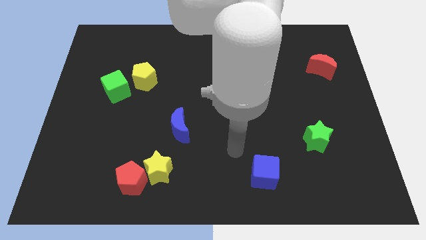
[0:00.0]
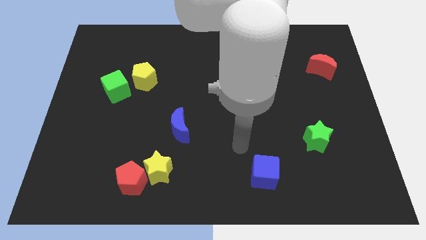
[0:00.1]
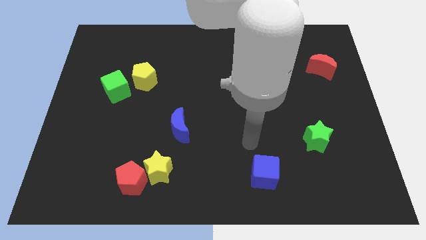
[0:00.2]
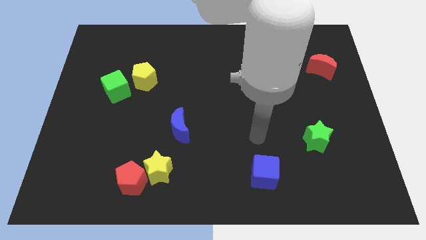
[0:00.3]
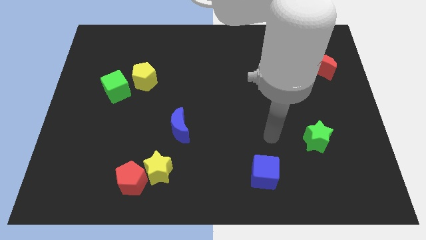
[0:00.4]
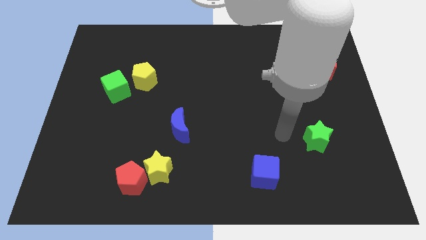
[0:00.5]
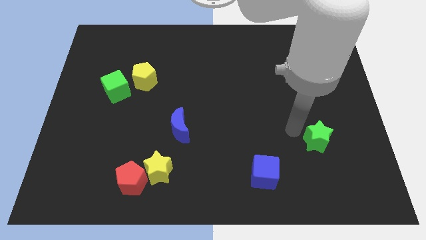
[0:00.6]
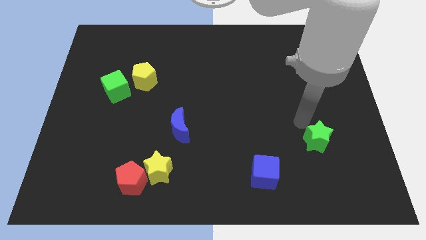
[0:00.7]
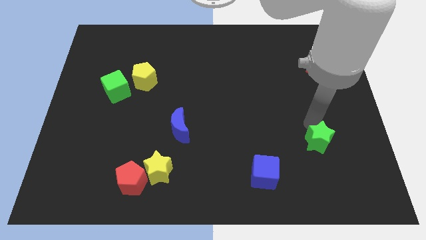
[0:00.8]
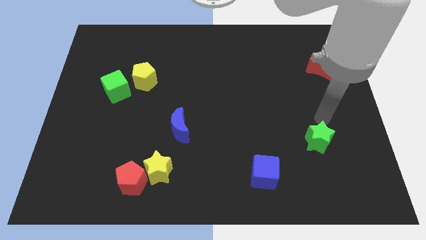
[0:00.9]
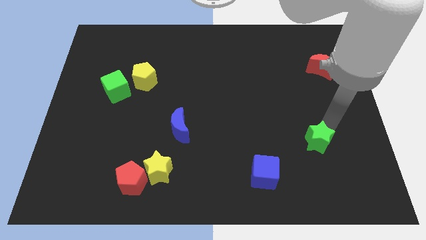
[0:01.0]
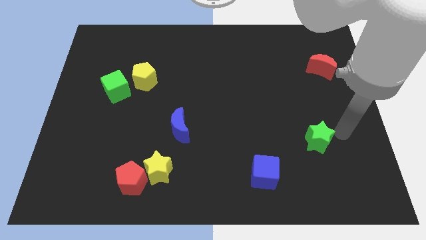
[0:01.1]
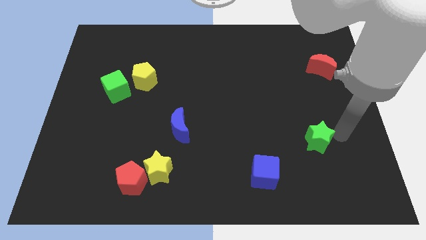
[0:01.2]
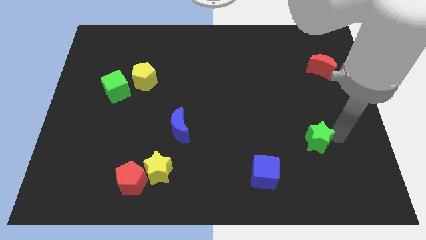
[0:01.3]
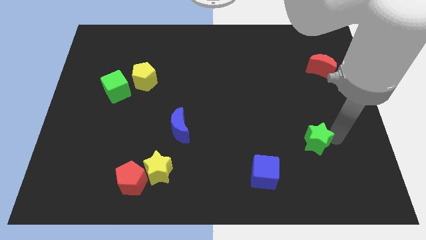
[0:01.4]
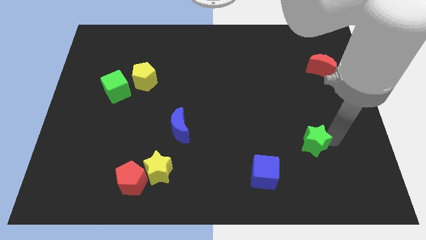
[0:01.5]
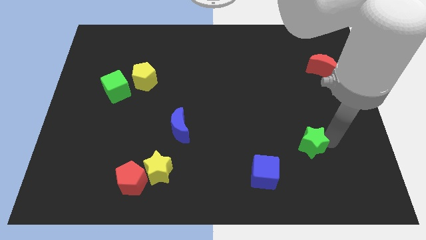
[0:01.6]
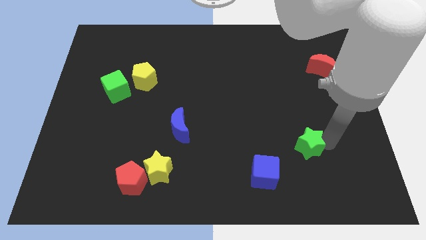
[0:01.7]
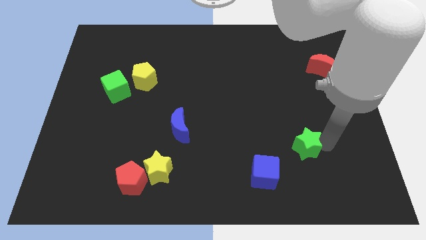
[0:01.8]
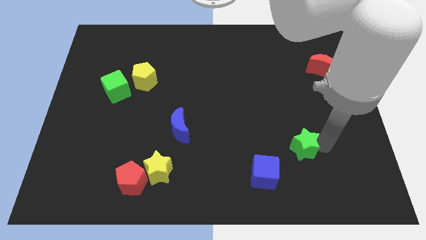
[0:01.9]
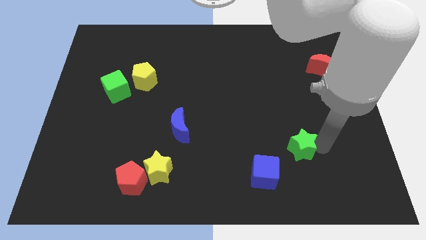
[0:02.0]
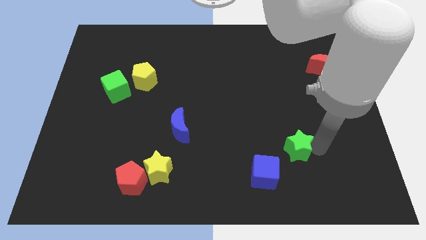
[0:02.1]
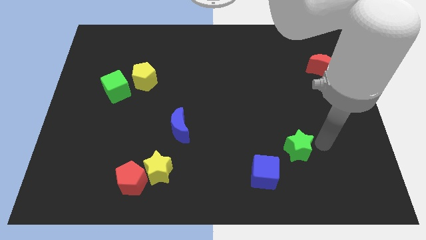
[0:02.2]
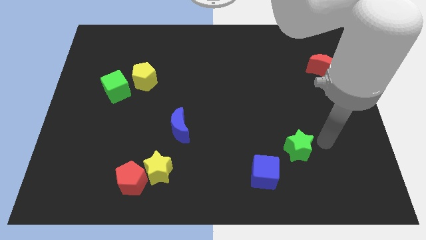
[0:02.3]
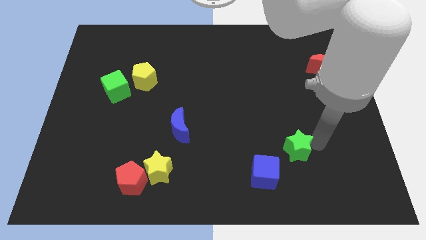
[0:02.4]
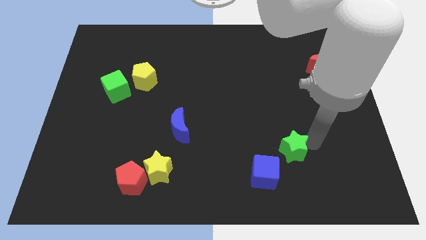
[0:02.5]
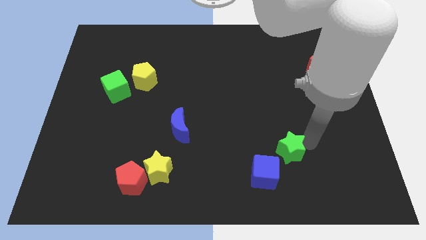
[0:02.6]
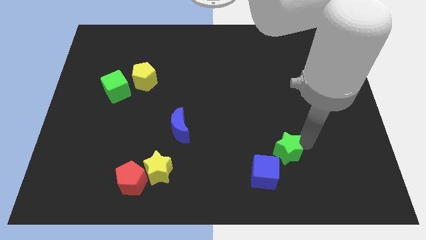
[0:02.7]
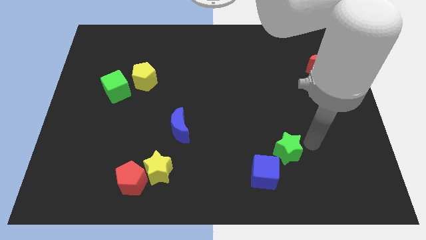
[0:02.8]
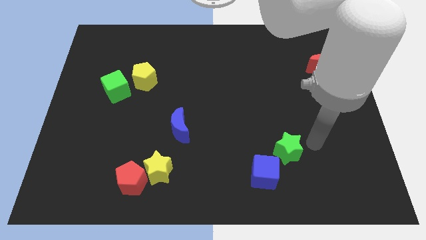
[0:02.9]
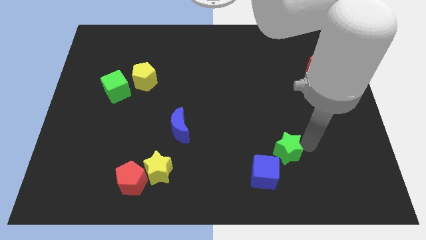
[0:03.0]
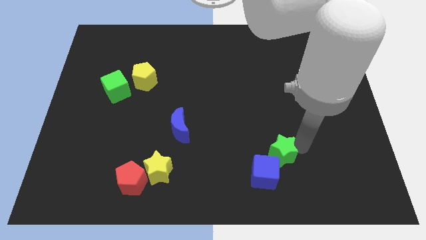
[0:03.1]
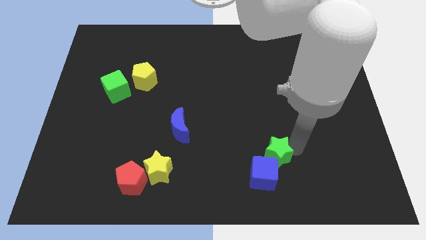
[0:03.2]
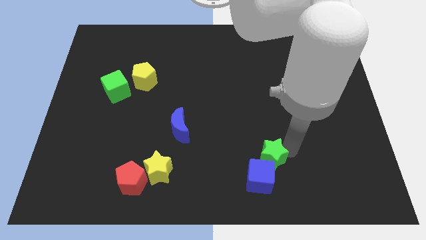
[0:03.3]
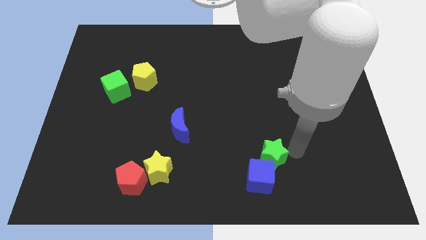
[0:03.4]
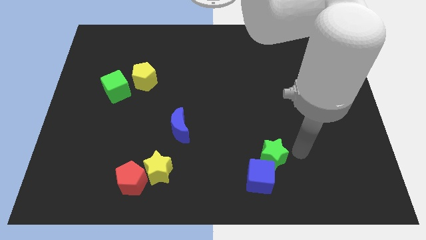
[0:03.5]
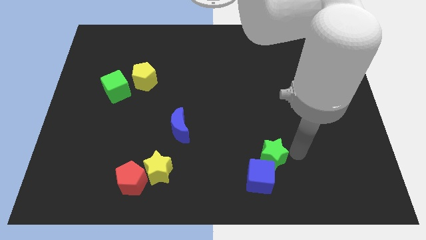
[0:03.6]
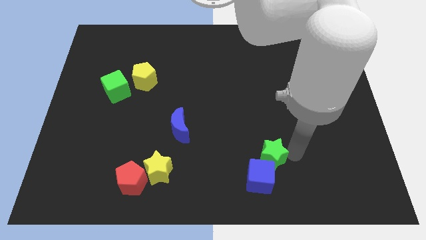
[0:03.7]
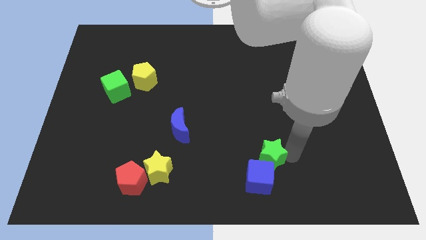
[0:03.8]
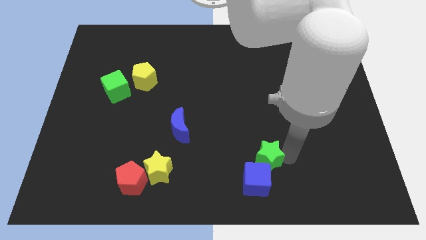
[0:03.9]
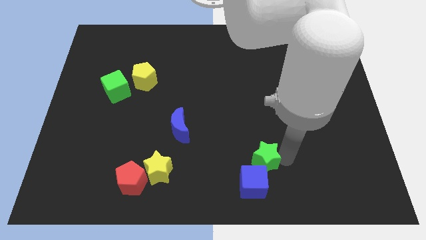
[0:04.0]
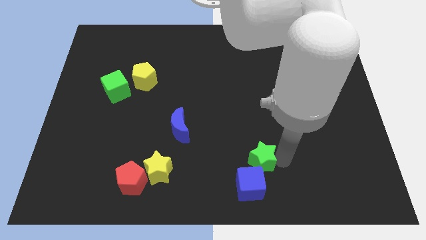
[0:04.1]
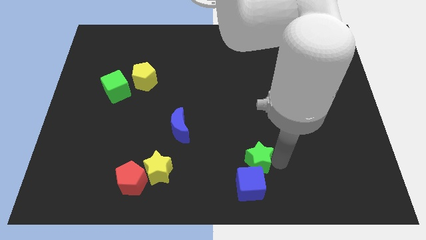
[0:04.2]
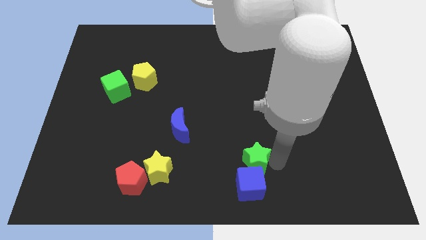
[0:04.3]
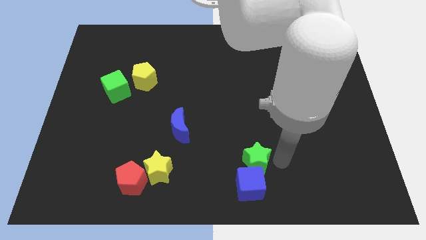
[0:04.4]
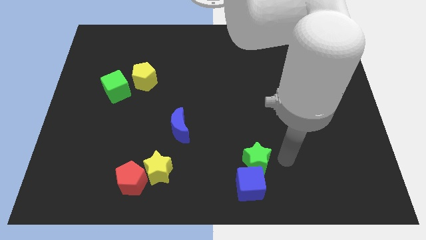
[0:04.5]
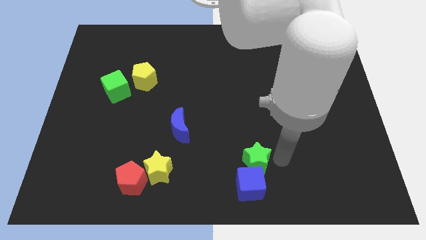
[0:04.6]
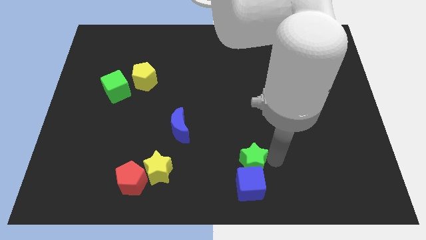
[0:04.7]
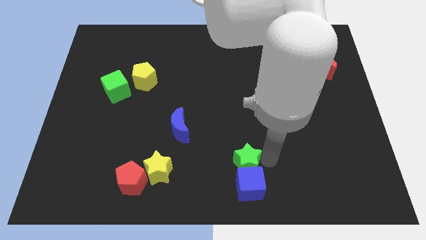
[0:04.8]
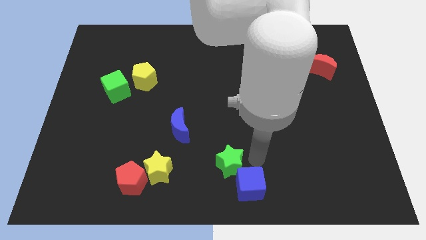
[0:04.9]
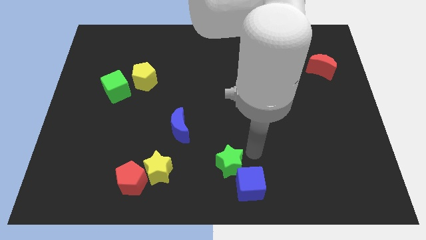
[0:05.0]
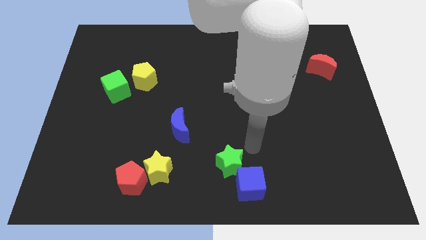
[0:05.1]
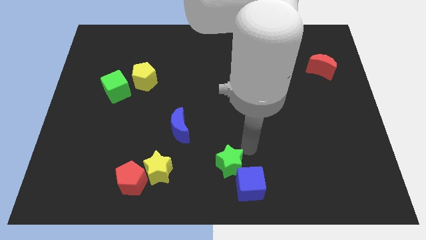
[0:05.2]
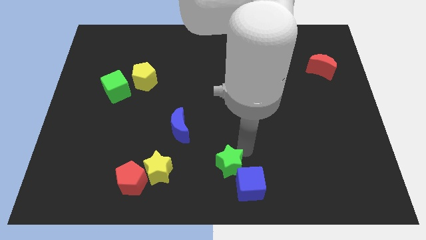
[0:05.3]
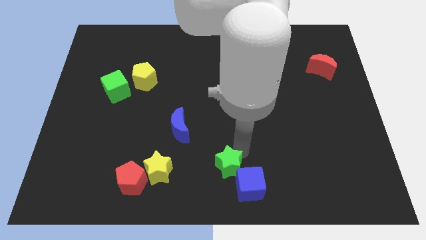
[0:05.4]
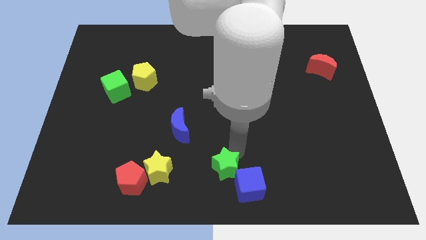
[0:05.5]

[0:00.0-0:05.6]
slide the green star to the left side of the blue cube

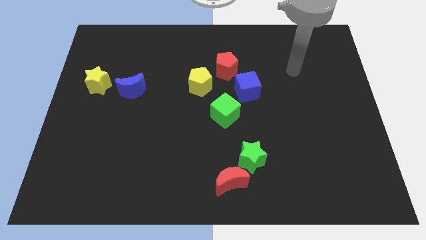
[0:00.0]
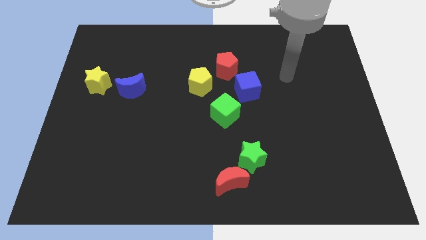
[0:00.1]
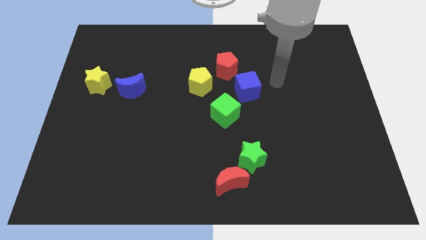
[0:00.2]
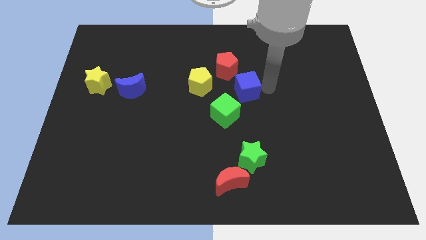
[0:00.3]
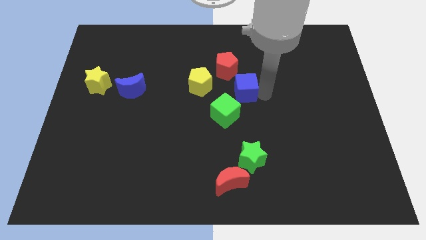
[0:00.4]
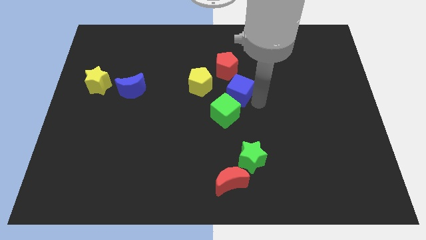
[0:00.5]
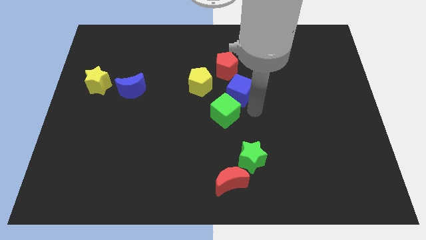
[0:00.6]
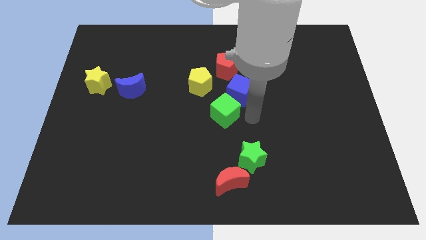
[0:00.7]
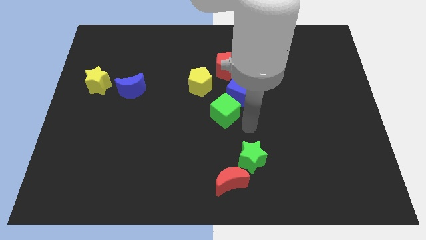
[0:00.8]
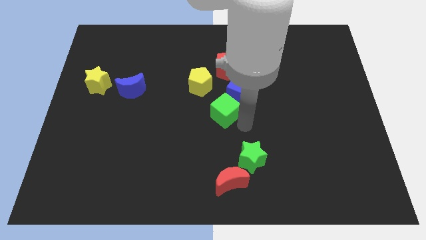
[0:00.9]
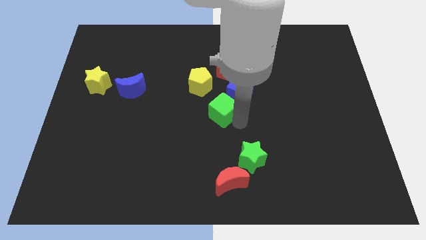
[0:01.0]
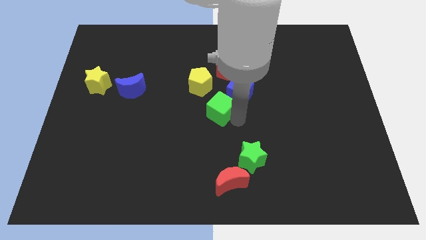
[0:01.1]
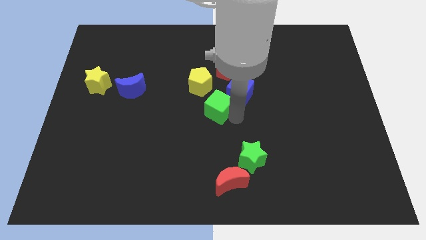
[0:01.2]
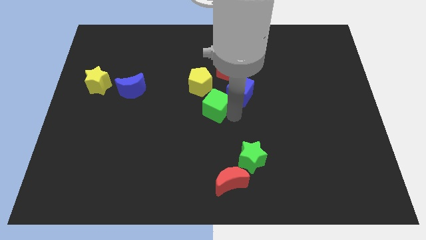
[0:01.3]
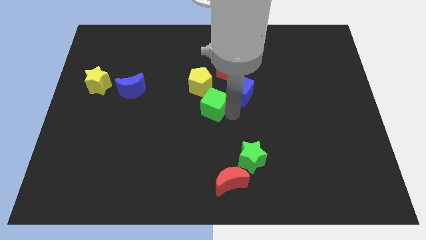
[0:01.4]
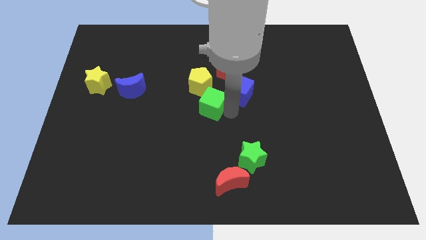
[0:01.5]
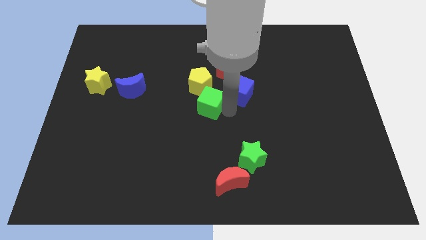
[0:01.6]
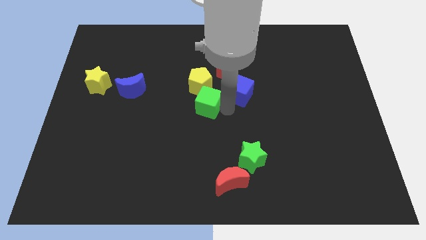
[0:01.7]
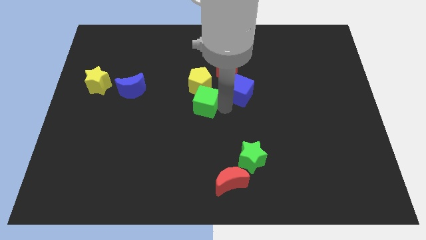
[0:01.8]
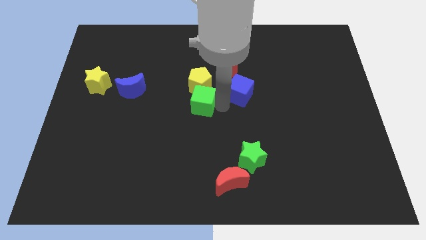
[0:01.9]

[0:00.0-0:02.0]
put the green cube diagonally down and to the left of the yellow pentagon
